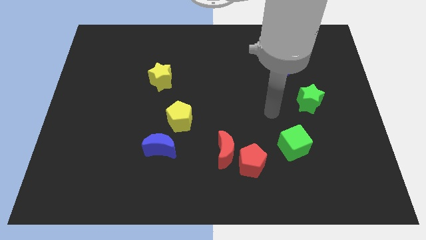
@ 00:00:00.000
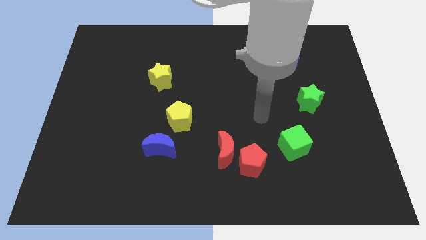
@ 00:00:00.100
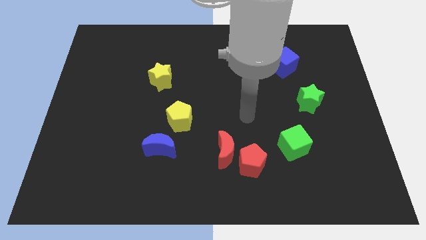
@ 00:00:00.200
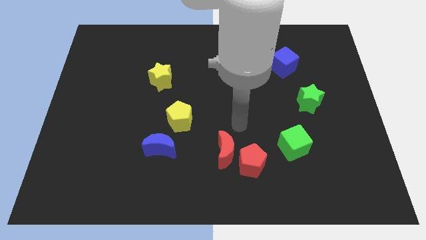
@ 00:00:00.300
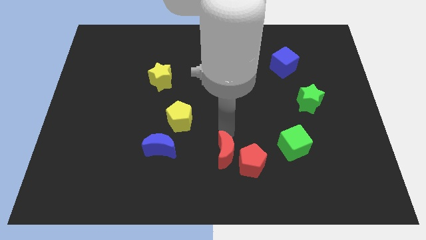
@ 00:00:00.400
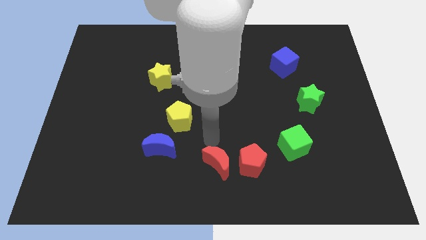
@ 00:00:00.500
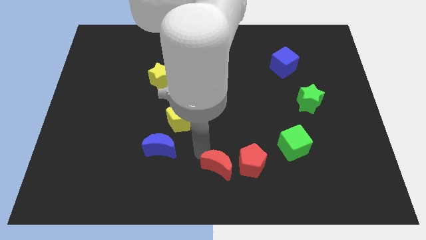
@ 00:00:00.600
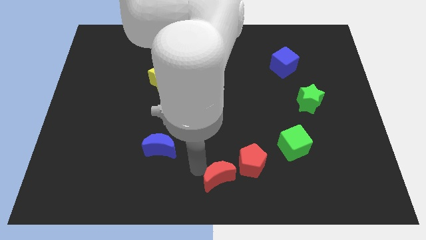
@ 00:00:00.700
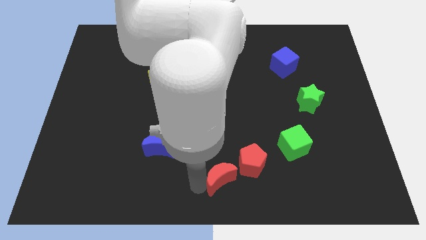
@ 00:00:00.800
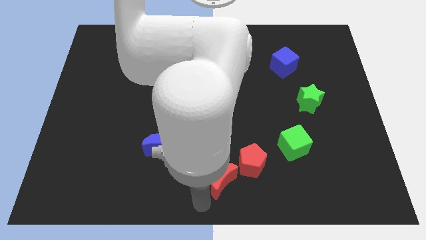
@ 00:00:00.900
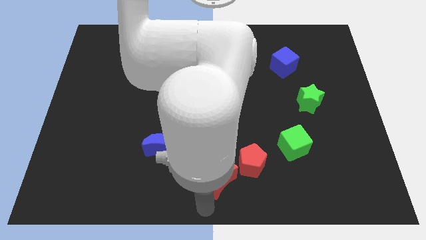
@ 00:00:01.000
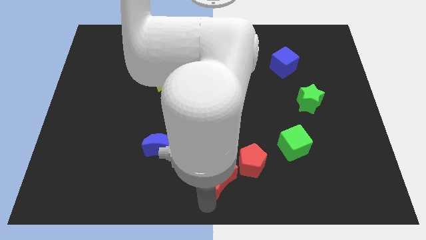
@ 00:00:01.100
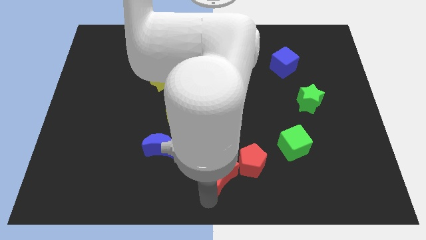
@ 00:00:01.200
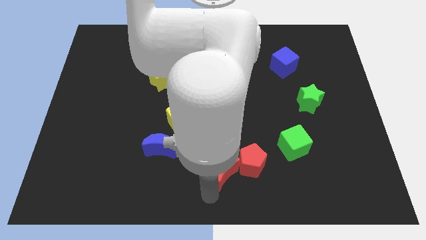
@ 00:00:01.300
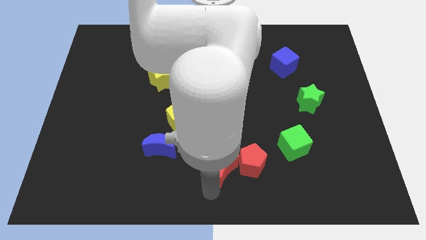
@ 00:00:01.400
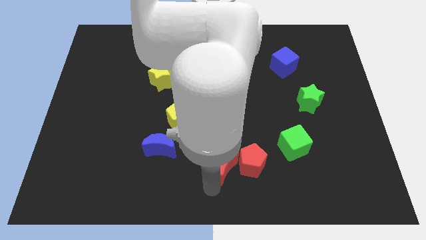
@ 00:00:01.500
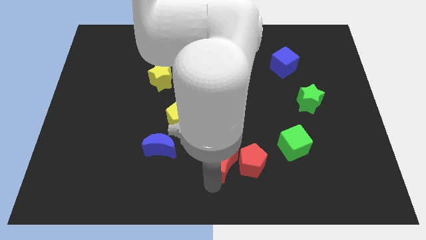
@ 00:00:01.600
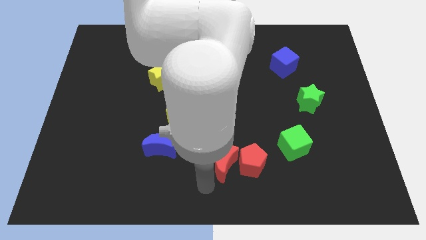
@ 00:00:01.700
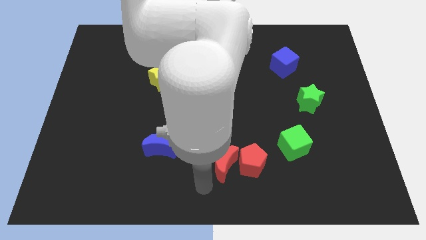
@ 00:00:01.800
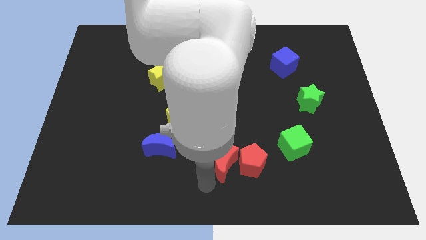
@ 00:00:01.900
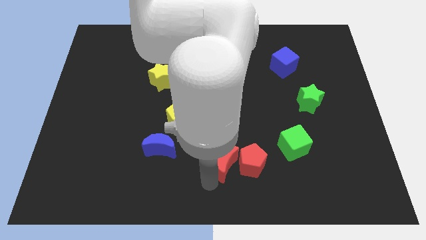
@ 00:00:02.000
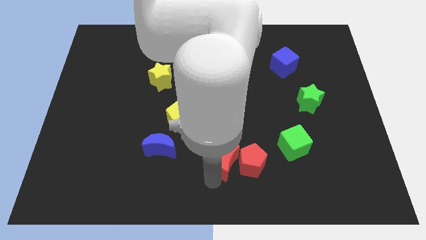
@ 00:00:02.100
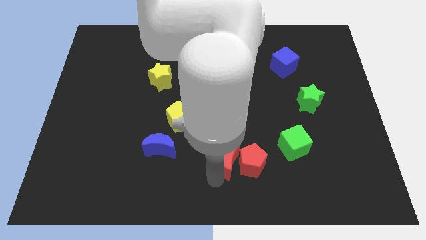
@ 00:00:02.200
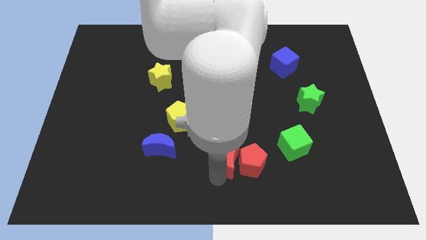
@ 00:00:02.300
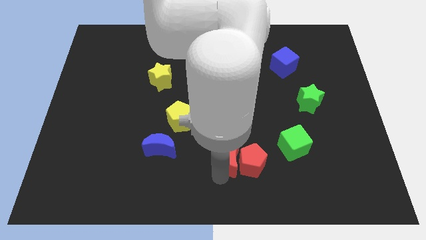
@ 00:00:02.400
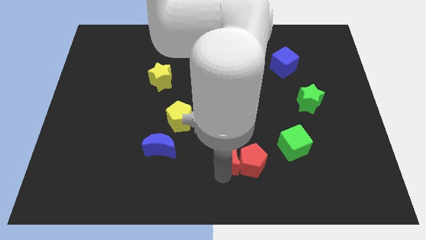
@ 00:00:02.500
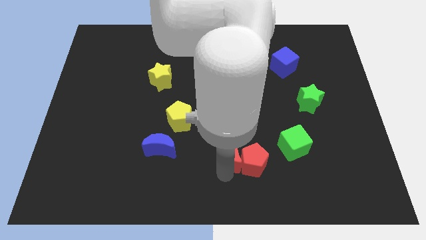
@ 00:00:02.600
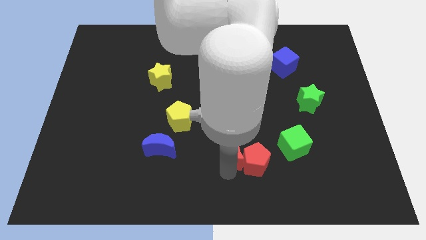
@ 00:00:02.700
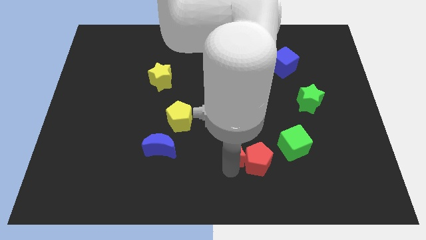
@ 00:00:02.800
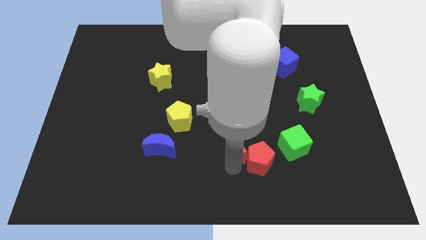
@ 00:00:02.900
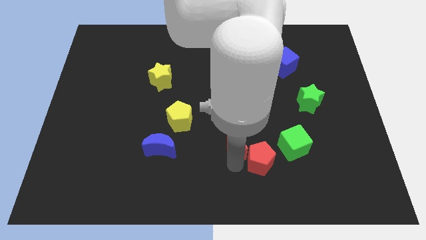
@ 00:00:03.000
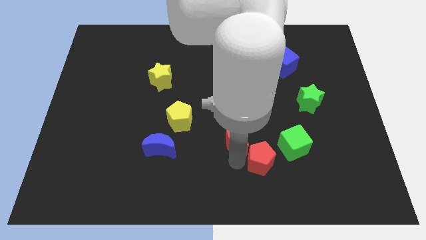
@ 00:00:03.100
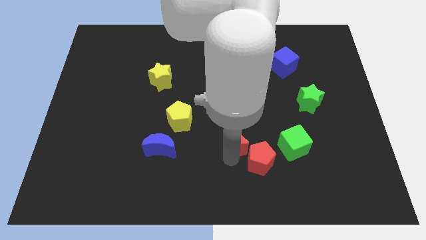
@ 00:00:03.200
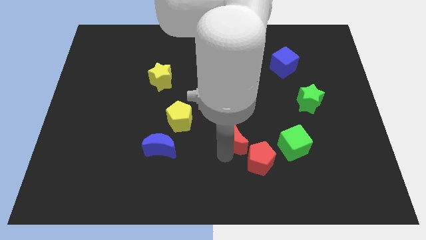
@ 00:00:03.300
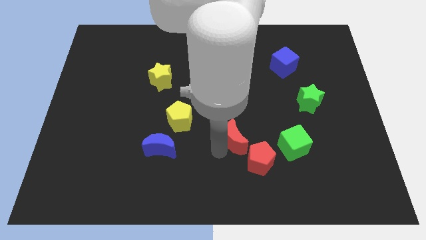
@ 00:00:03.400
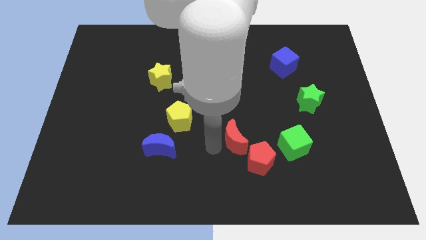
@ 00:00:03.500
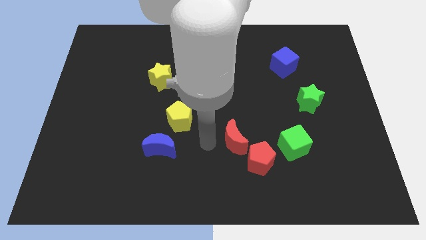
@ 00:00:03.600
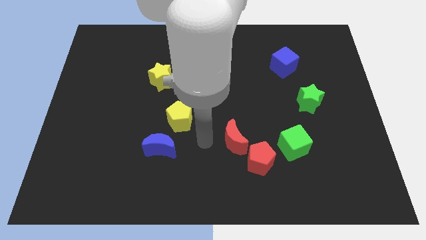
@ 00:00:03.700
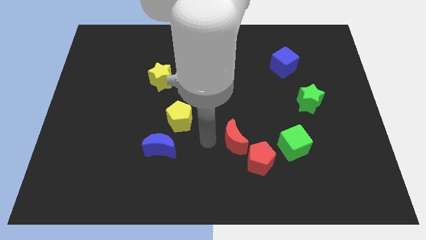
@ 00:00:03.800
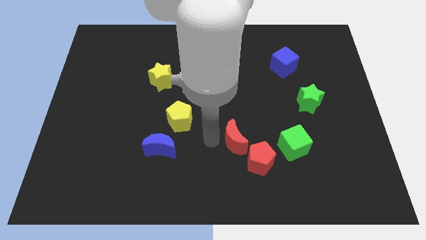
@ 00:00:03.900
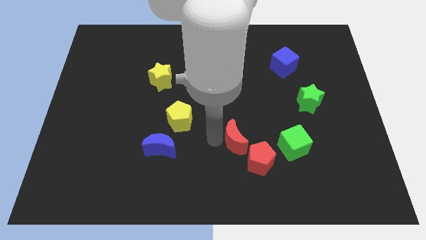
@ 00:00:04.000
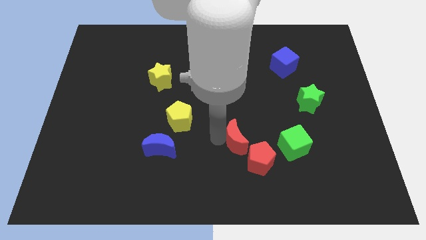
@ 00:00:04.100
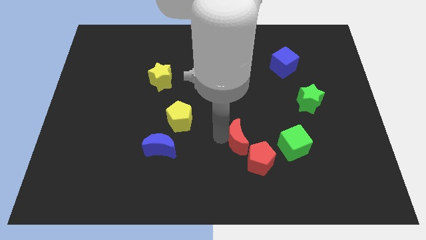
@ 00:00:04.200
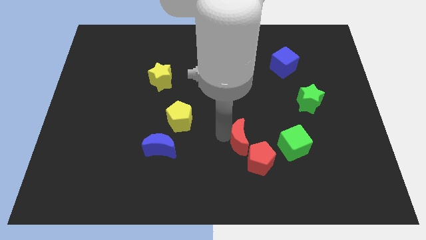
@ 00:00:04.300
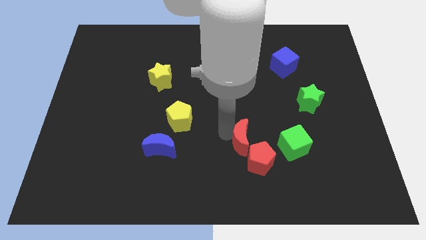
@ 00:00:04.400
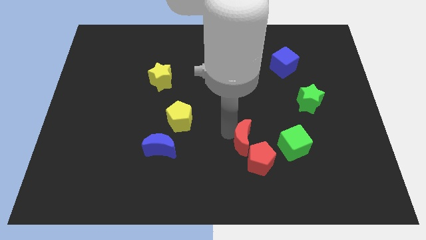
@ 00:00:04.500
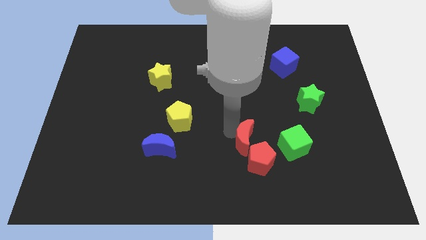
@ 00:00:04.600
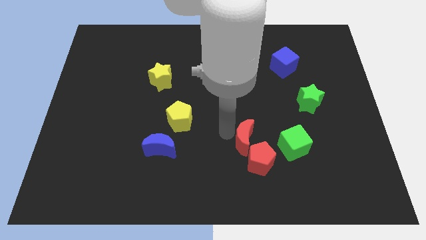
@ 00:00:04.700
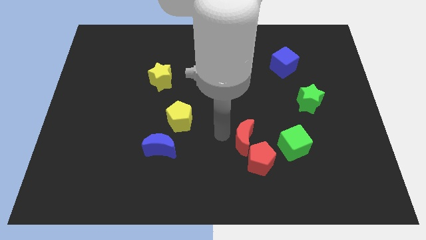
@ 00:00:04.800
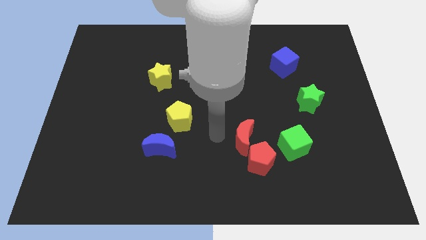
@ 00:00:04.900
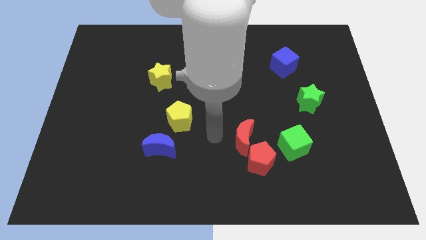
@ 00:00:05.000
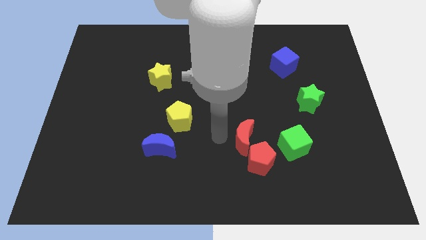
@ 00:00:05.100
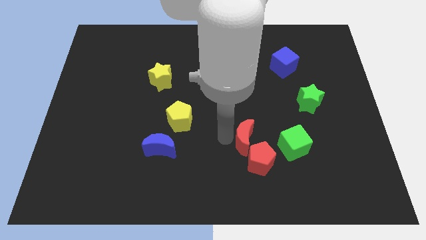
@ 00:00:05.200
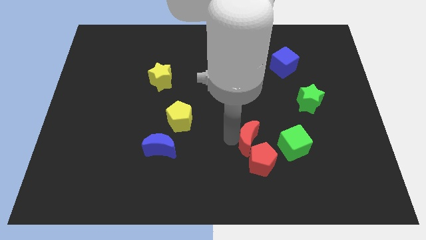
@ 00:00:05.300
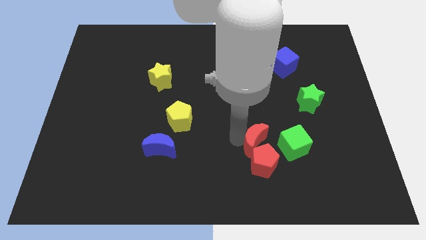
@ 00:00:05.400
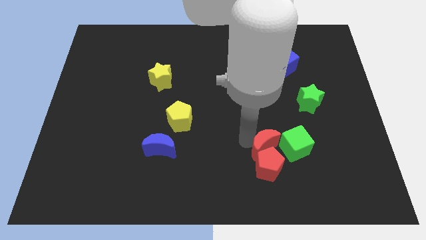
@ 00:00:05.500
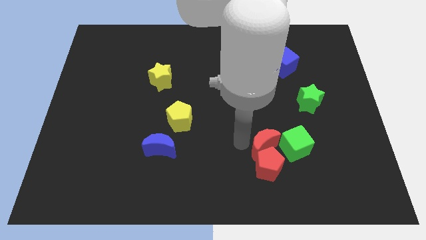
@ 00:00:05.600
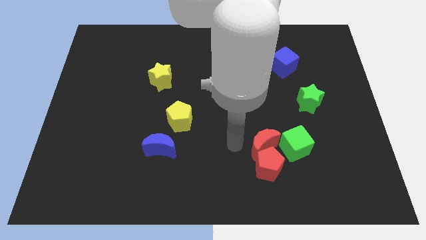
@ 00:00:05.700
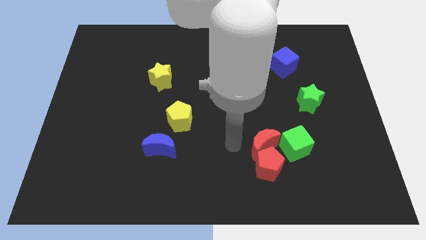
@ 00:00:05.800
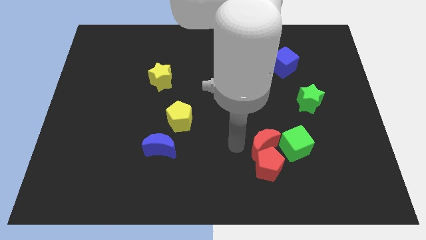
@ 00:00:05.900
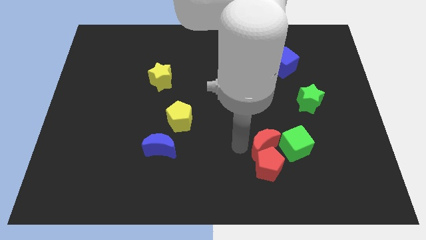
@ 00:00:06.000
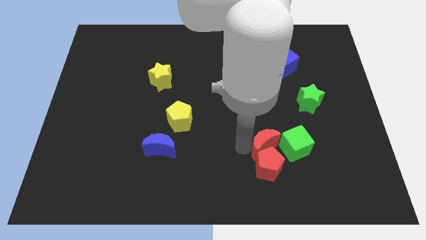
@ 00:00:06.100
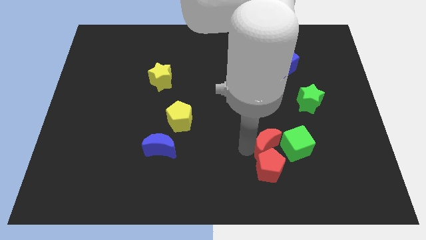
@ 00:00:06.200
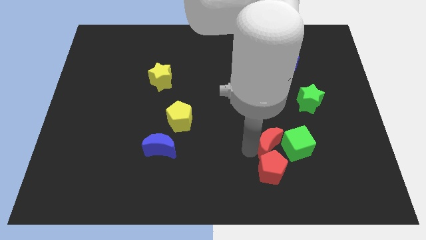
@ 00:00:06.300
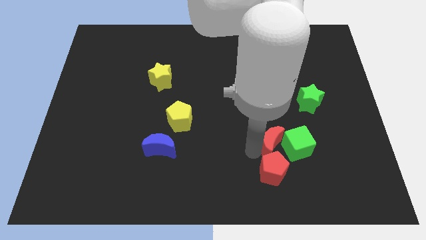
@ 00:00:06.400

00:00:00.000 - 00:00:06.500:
slide the red moon close to the green cube
